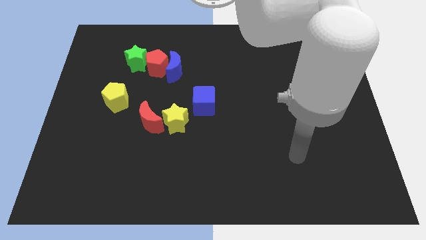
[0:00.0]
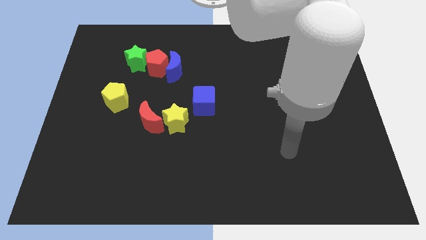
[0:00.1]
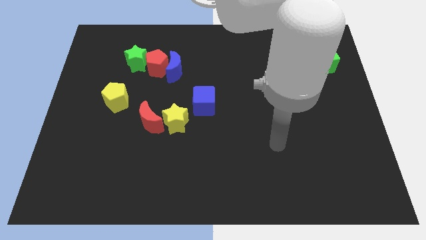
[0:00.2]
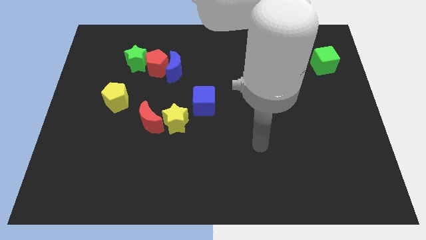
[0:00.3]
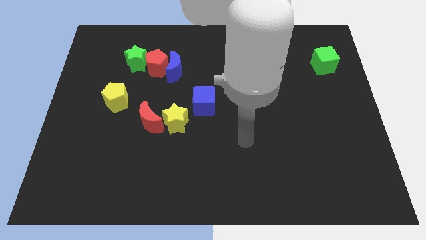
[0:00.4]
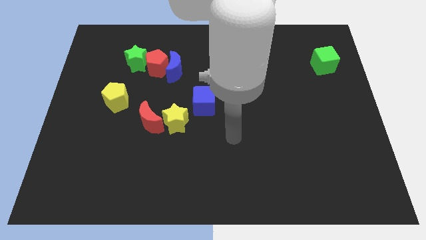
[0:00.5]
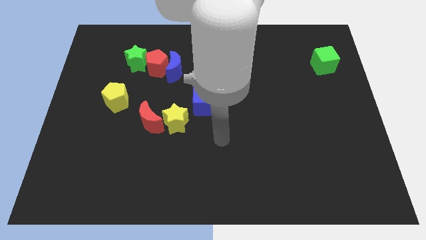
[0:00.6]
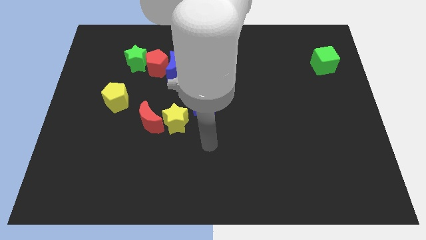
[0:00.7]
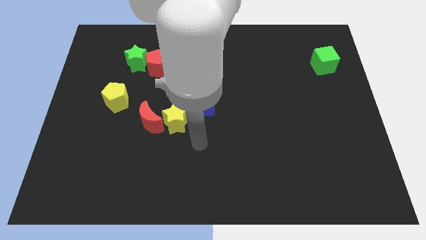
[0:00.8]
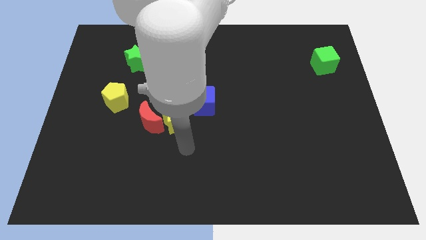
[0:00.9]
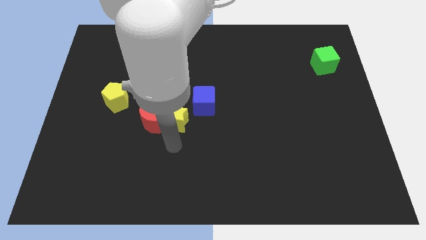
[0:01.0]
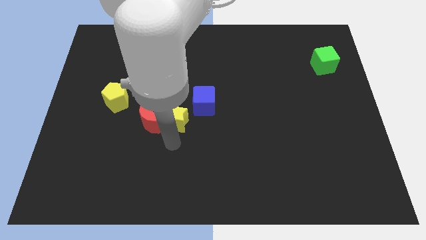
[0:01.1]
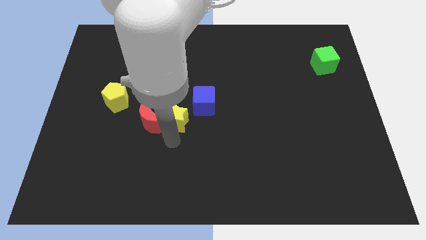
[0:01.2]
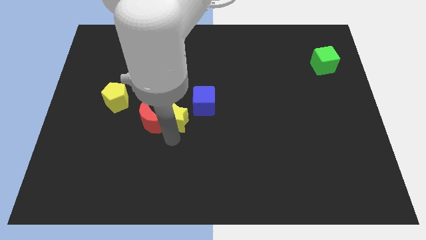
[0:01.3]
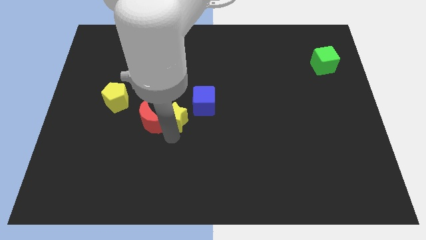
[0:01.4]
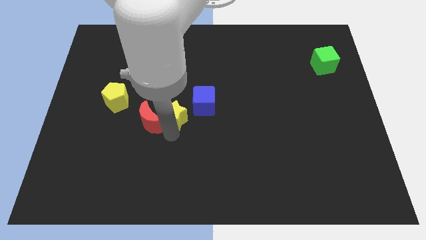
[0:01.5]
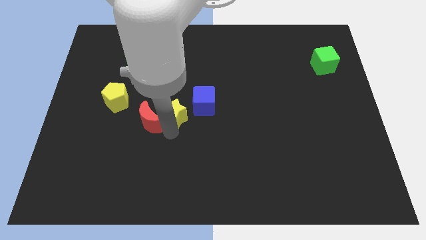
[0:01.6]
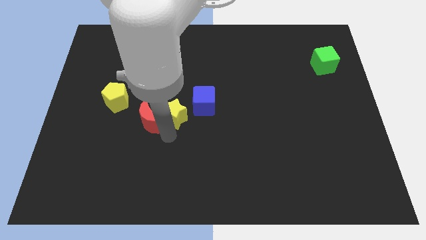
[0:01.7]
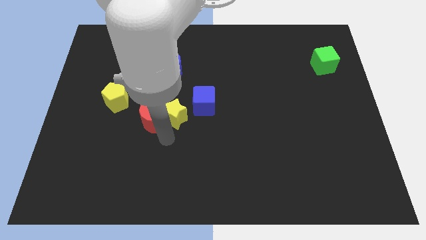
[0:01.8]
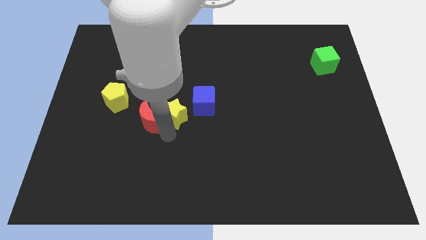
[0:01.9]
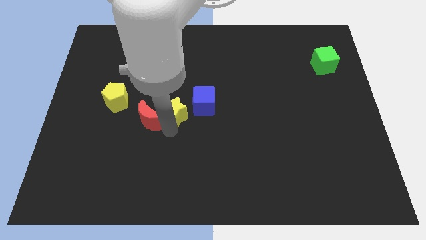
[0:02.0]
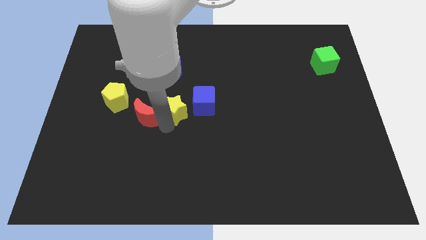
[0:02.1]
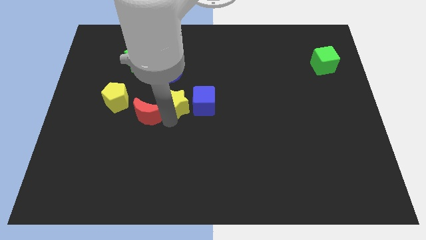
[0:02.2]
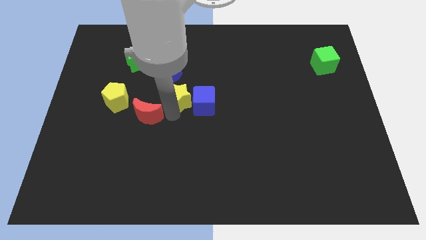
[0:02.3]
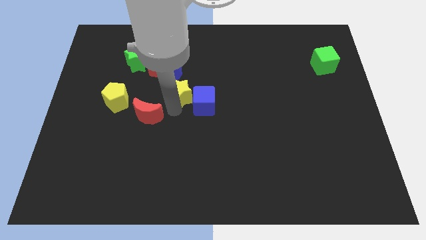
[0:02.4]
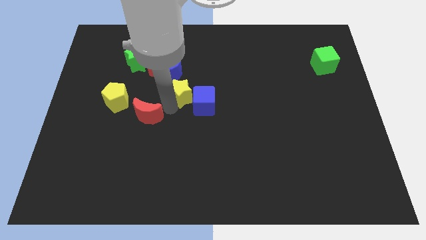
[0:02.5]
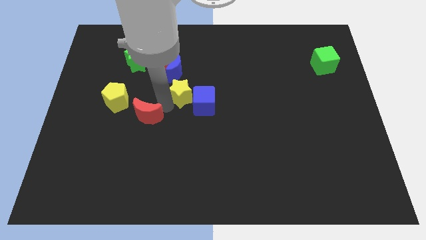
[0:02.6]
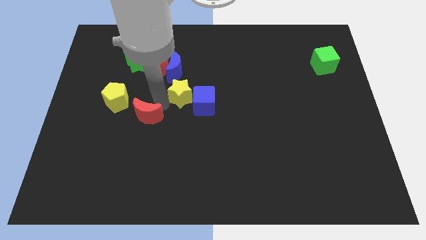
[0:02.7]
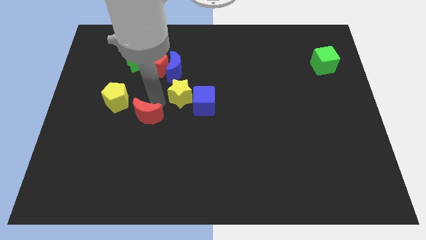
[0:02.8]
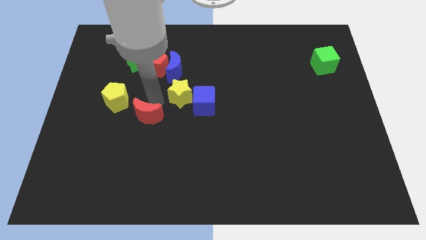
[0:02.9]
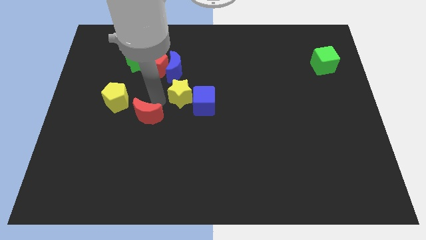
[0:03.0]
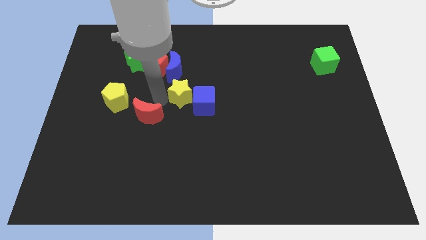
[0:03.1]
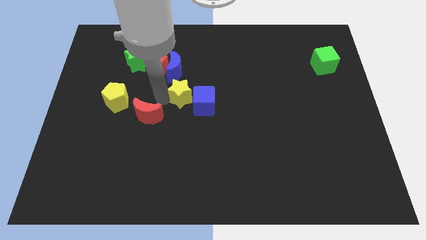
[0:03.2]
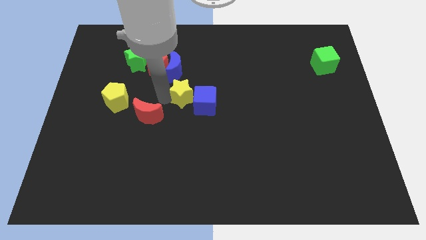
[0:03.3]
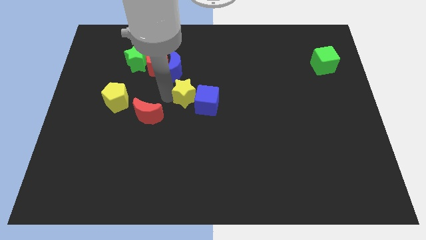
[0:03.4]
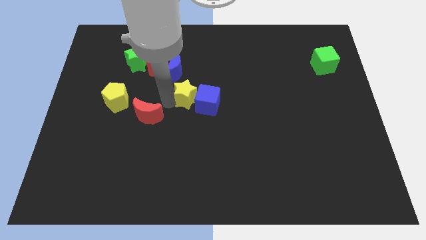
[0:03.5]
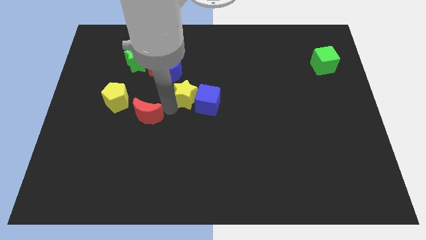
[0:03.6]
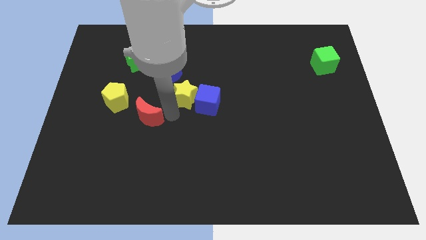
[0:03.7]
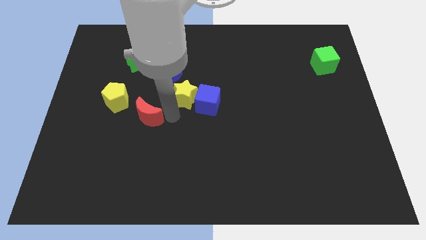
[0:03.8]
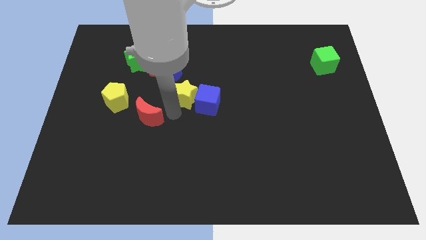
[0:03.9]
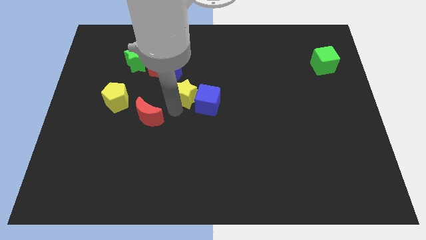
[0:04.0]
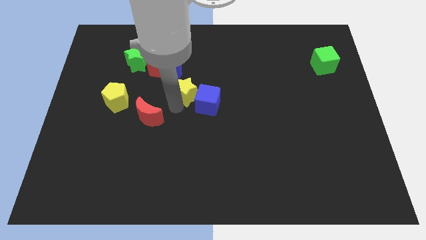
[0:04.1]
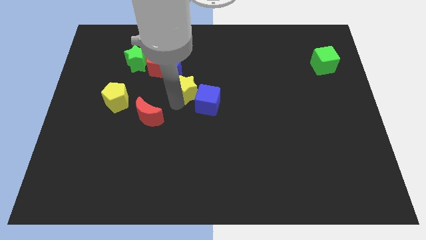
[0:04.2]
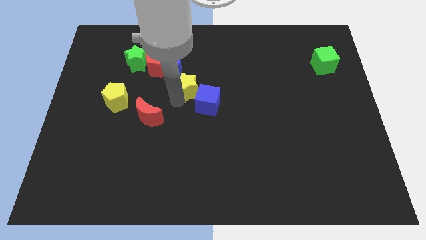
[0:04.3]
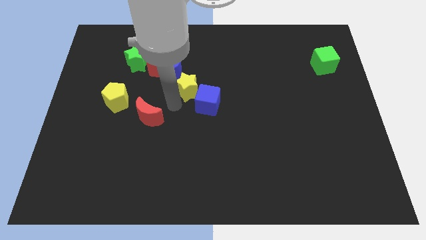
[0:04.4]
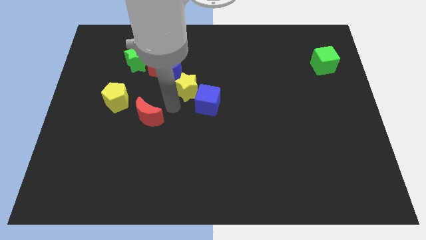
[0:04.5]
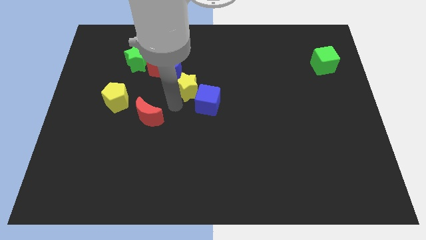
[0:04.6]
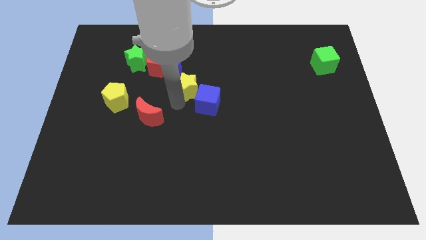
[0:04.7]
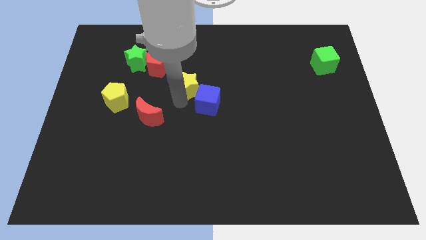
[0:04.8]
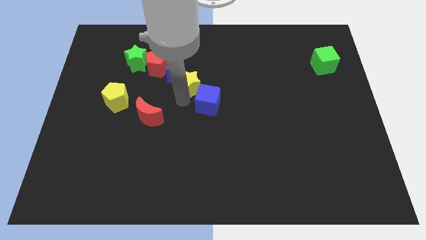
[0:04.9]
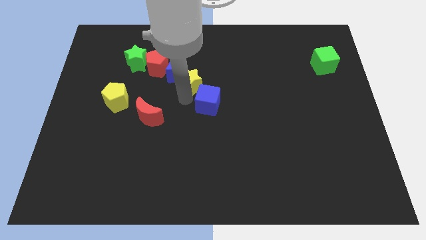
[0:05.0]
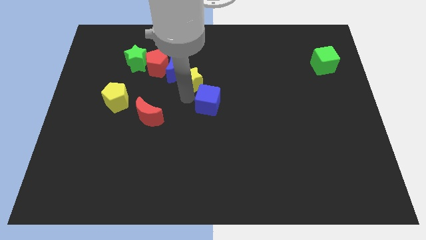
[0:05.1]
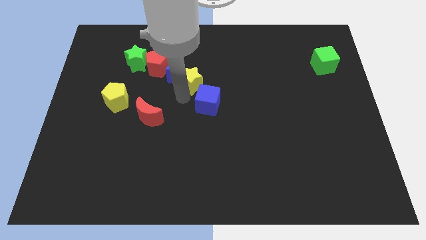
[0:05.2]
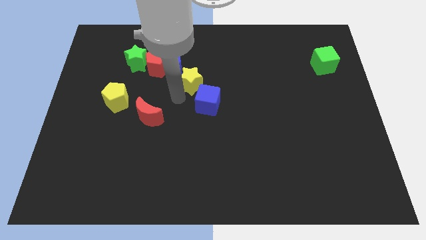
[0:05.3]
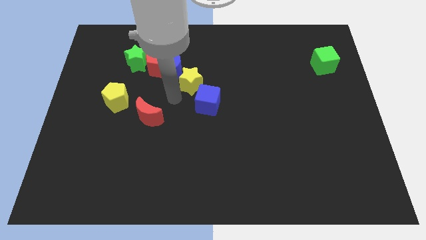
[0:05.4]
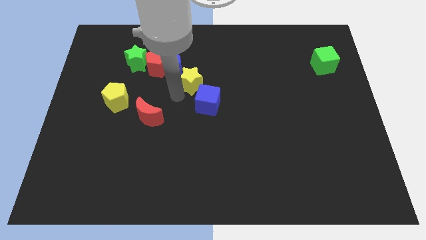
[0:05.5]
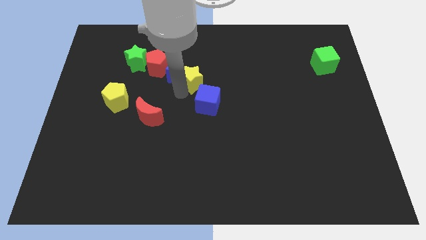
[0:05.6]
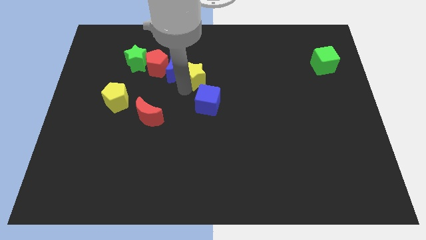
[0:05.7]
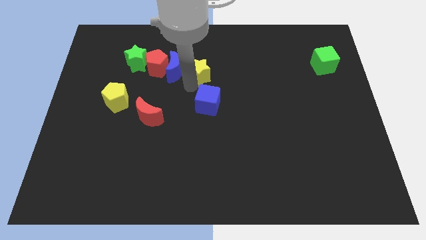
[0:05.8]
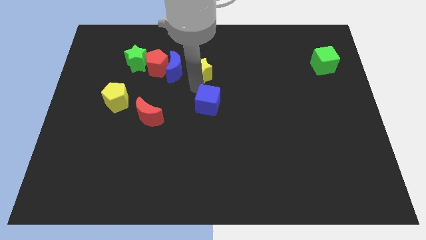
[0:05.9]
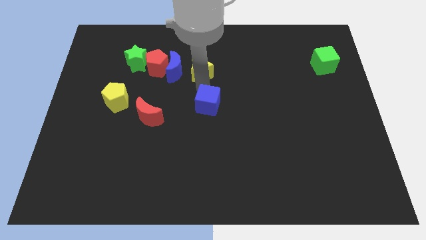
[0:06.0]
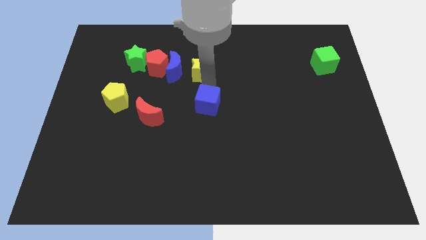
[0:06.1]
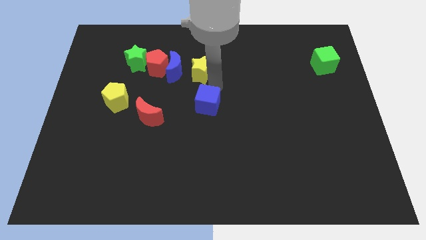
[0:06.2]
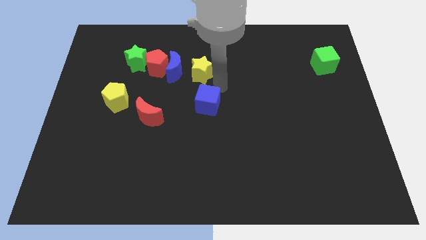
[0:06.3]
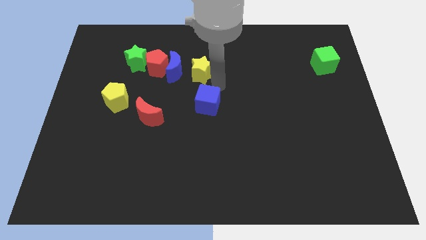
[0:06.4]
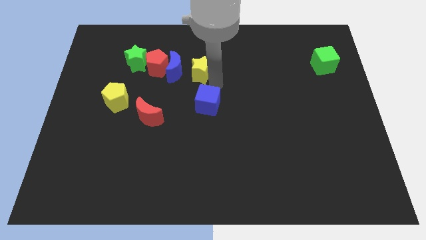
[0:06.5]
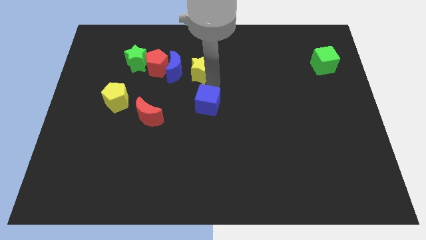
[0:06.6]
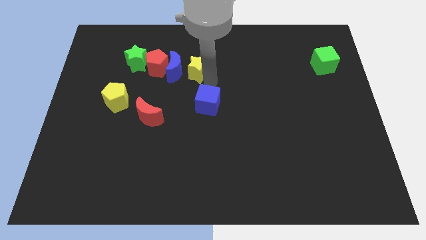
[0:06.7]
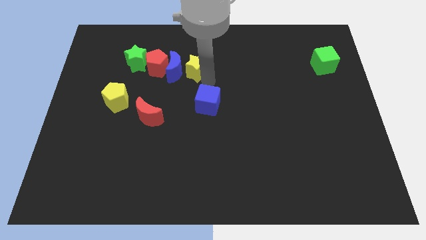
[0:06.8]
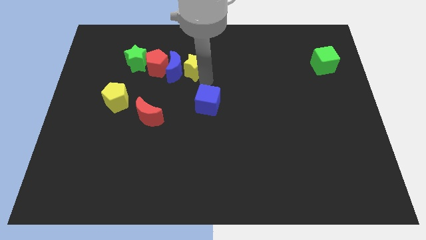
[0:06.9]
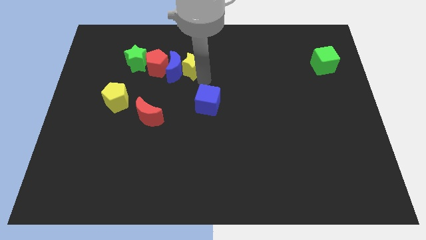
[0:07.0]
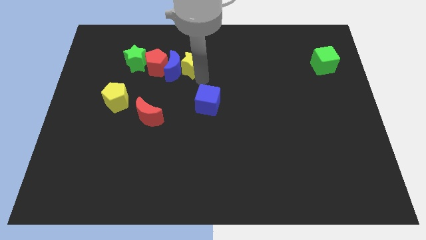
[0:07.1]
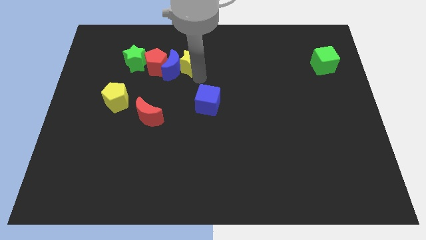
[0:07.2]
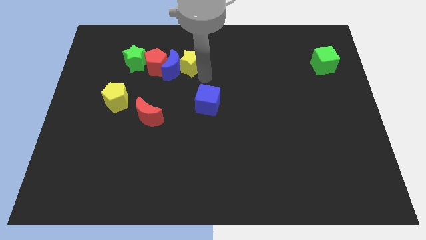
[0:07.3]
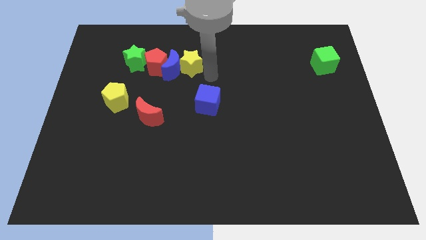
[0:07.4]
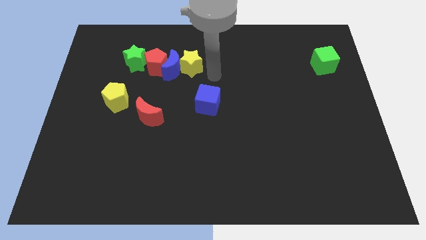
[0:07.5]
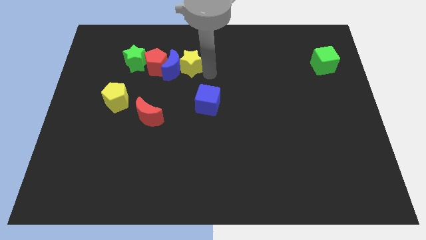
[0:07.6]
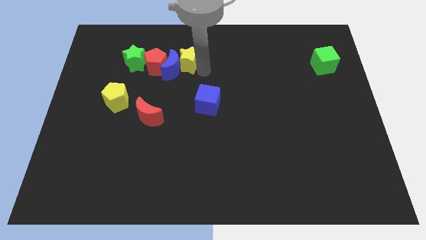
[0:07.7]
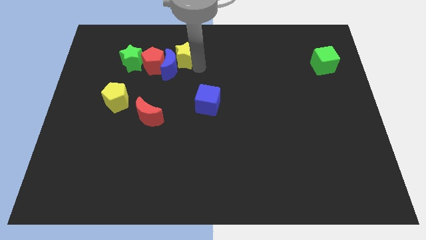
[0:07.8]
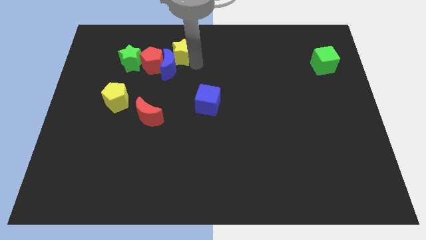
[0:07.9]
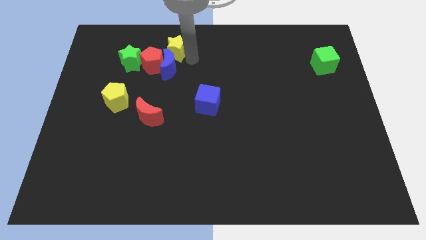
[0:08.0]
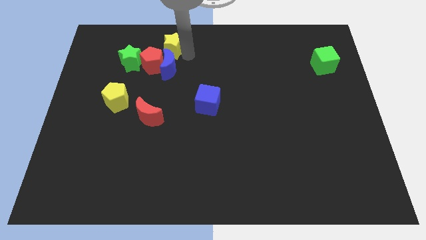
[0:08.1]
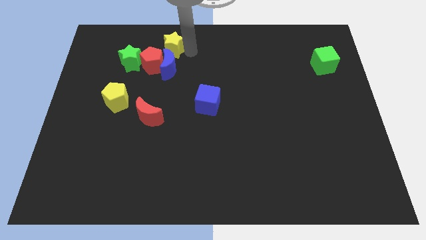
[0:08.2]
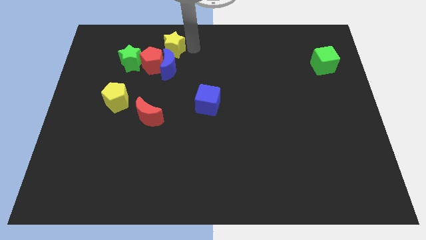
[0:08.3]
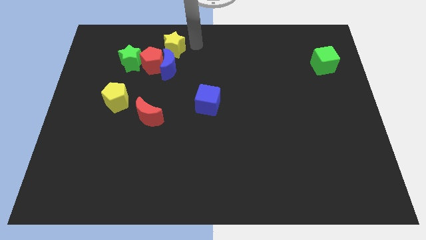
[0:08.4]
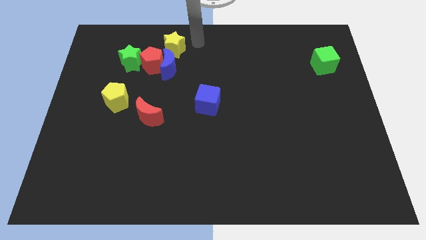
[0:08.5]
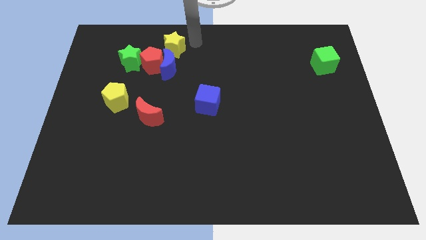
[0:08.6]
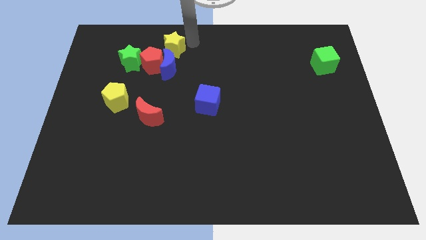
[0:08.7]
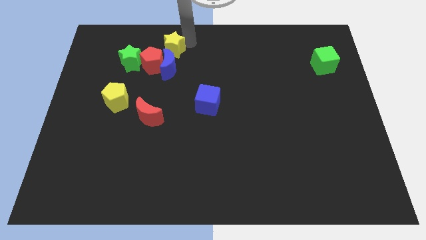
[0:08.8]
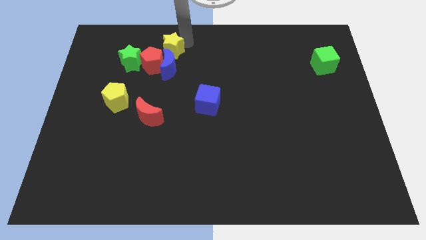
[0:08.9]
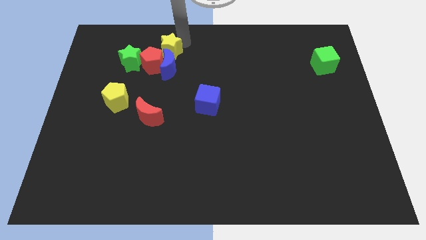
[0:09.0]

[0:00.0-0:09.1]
slide the yellow star diagonally up and to the left of the blue moon
